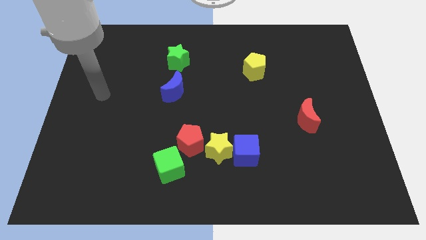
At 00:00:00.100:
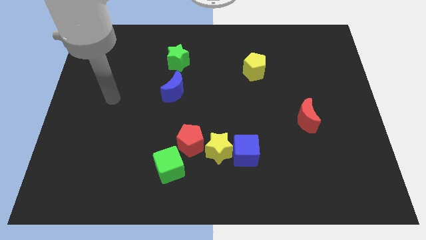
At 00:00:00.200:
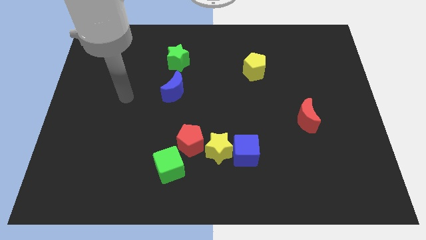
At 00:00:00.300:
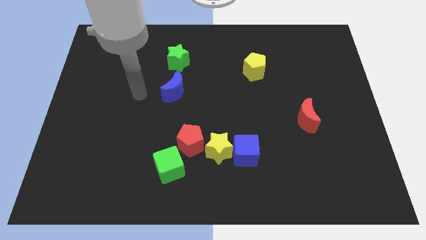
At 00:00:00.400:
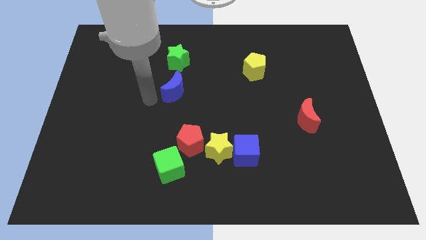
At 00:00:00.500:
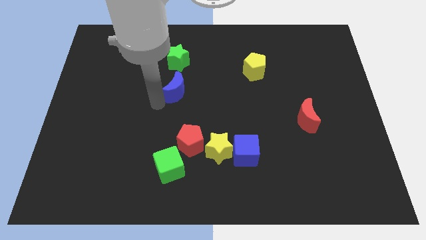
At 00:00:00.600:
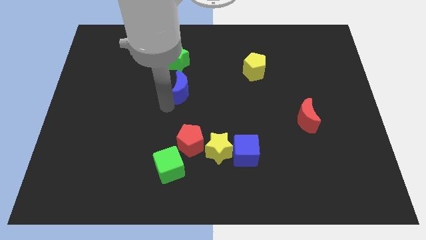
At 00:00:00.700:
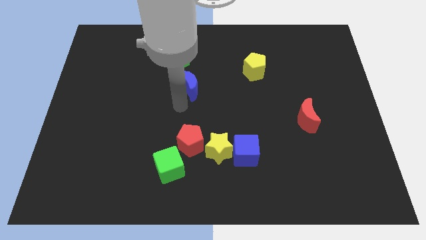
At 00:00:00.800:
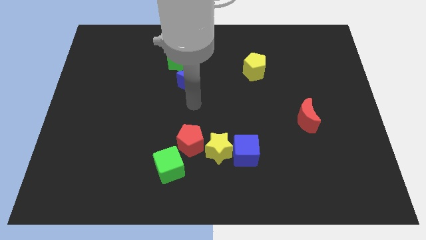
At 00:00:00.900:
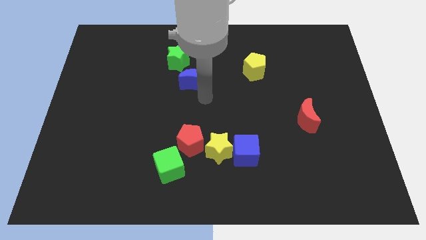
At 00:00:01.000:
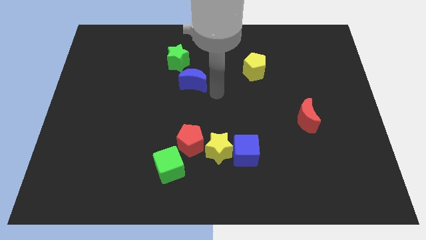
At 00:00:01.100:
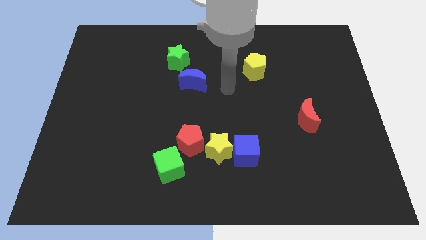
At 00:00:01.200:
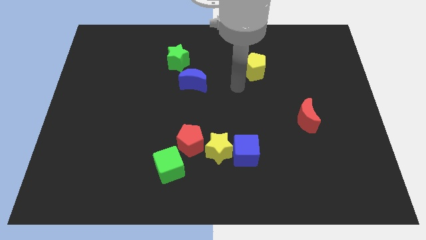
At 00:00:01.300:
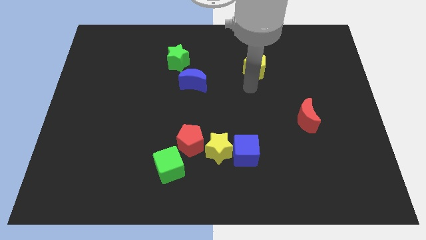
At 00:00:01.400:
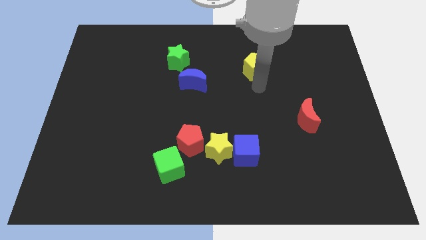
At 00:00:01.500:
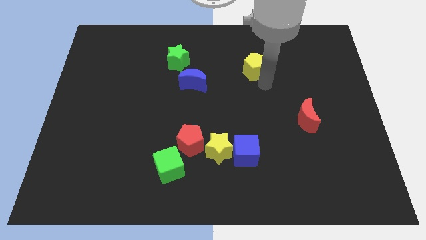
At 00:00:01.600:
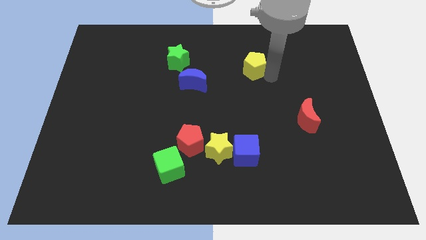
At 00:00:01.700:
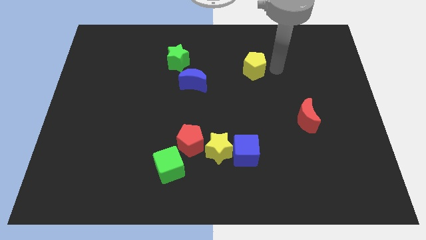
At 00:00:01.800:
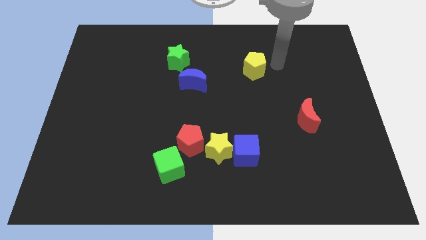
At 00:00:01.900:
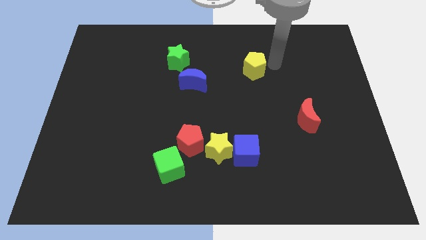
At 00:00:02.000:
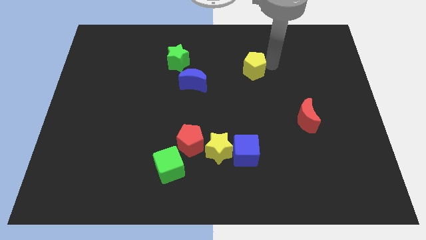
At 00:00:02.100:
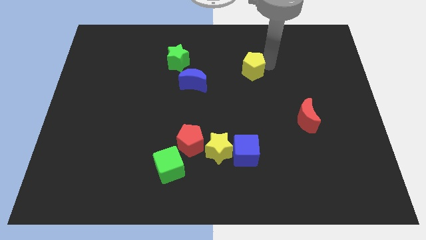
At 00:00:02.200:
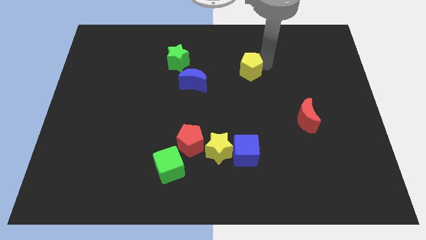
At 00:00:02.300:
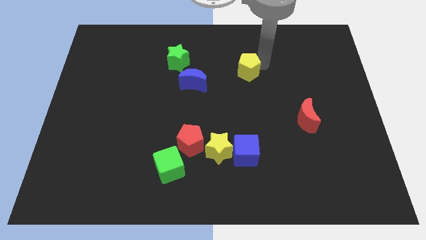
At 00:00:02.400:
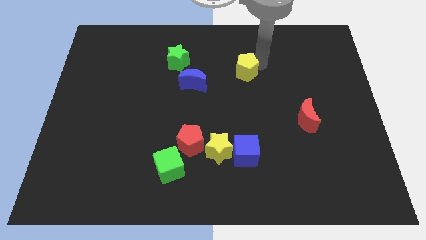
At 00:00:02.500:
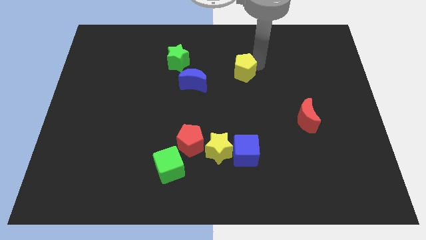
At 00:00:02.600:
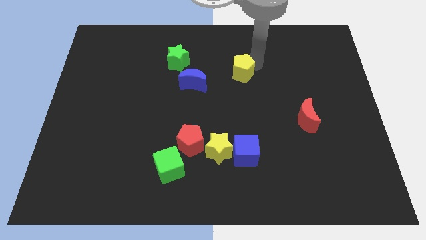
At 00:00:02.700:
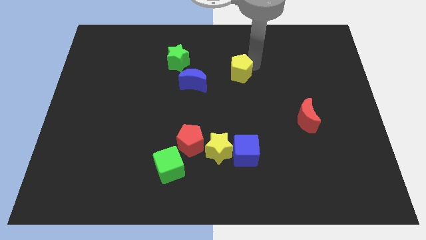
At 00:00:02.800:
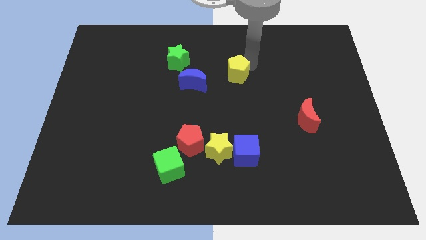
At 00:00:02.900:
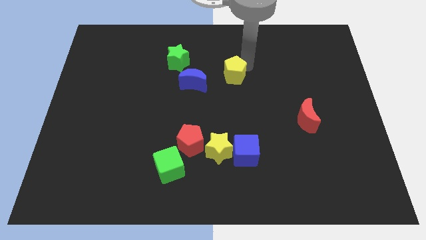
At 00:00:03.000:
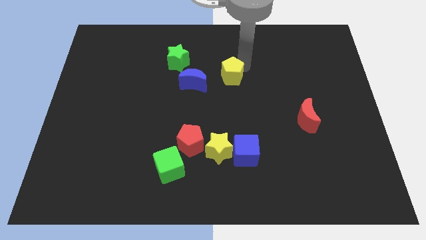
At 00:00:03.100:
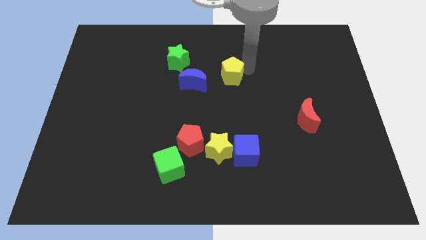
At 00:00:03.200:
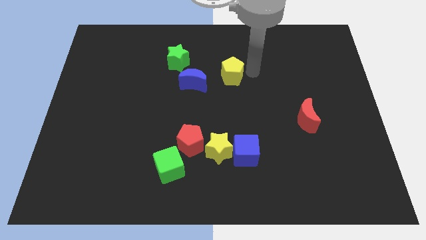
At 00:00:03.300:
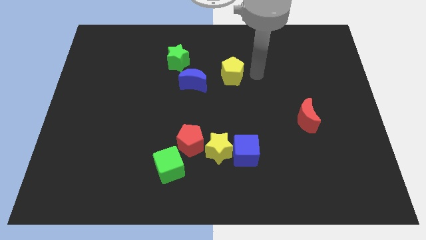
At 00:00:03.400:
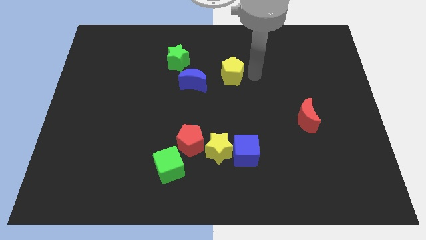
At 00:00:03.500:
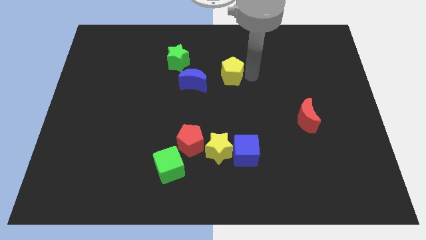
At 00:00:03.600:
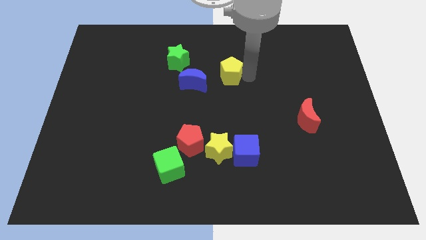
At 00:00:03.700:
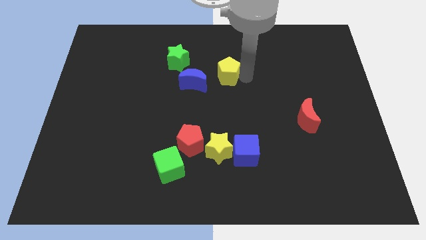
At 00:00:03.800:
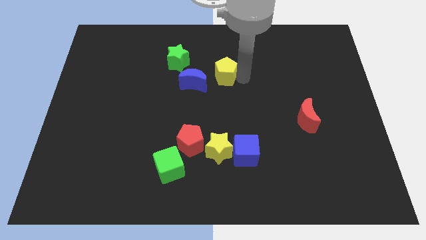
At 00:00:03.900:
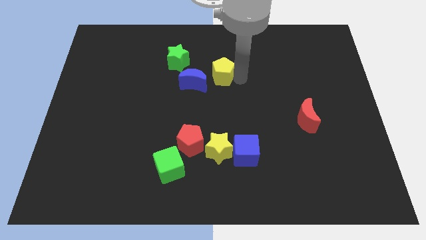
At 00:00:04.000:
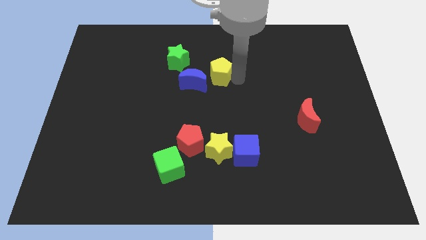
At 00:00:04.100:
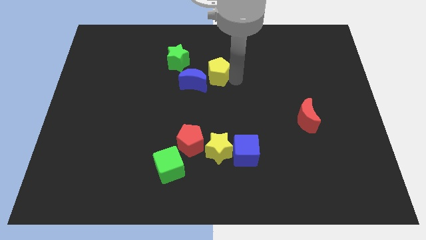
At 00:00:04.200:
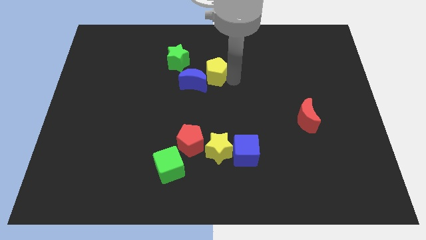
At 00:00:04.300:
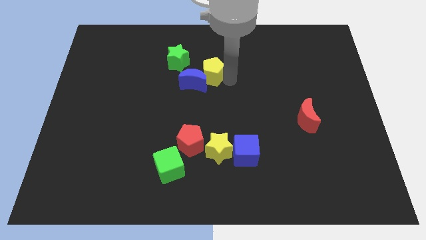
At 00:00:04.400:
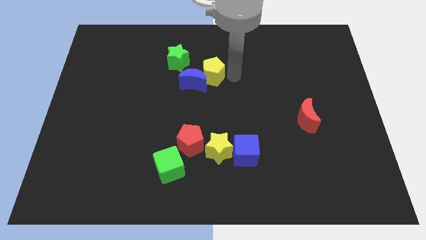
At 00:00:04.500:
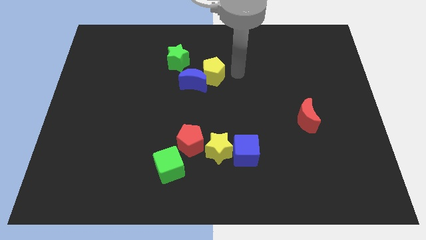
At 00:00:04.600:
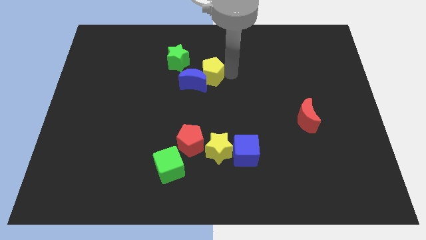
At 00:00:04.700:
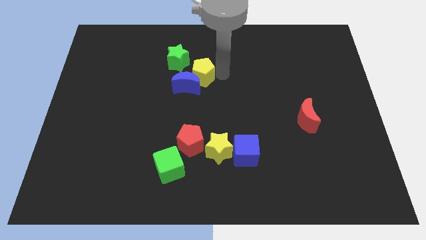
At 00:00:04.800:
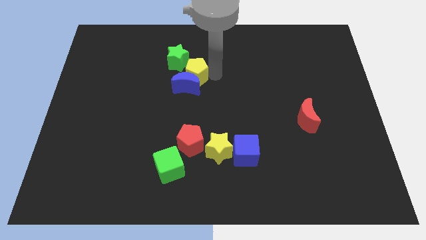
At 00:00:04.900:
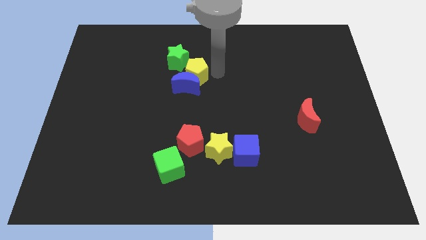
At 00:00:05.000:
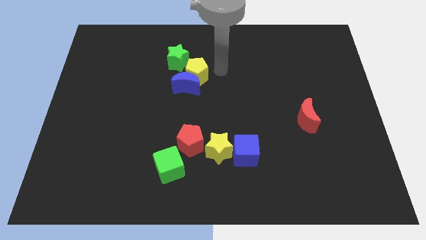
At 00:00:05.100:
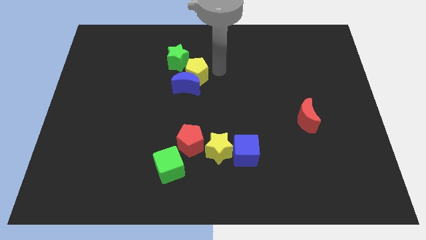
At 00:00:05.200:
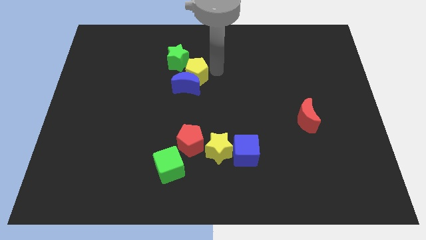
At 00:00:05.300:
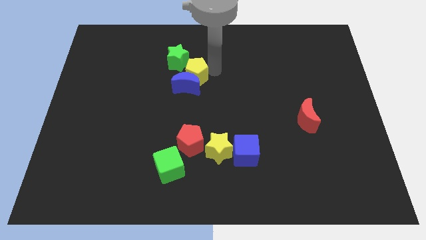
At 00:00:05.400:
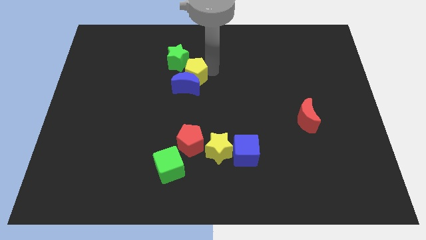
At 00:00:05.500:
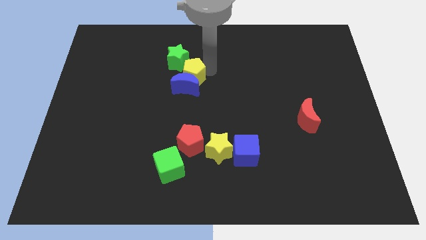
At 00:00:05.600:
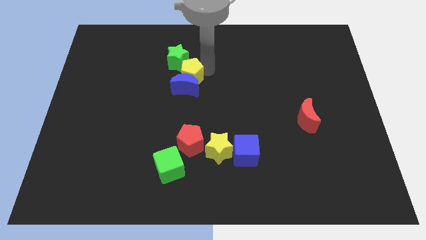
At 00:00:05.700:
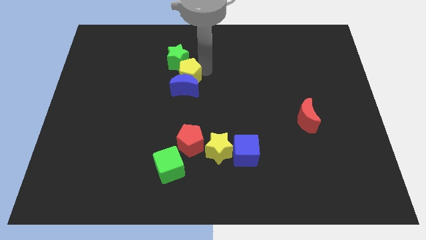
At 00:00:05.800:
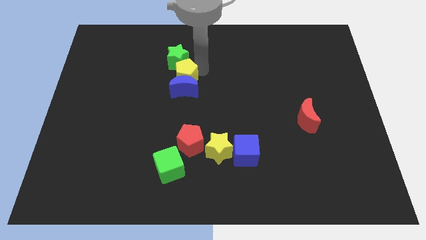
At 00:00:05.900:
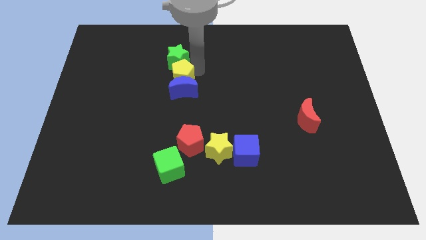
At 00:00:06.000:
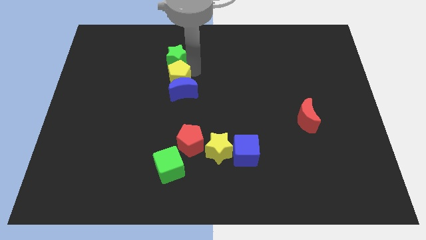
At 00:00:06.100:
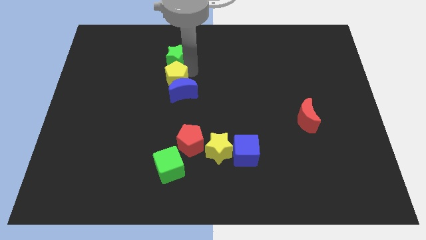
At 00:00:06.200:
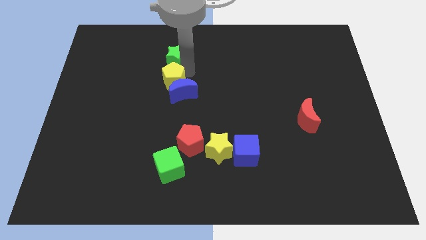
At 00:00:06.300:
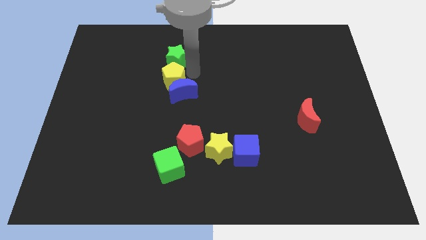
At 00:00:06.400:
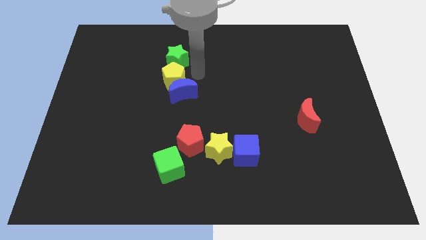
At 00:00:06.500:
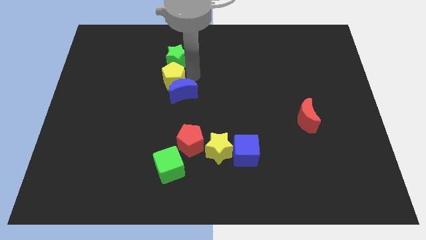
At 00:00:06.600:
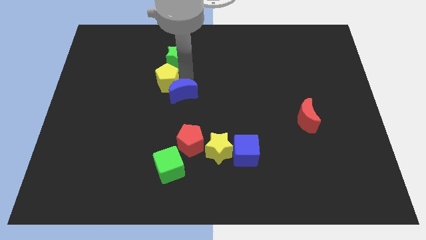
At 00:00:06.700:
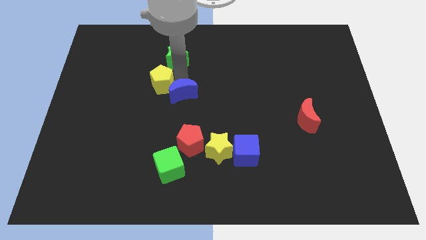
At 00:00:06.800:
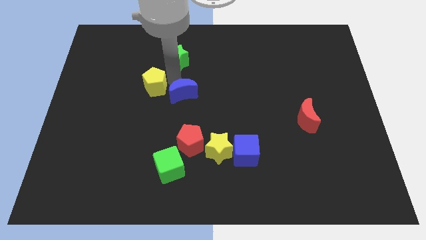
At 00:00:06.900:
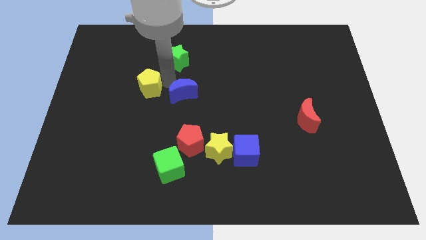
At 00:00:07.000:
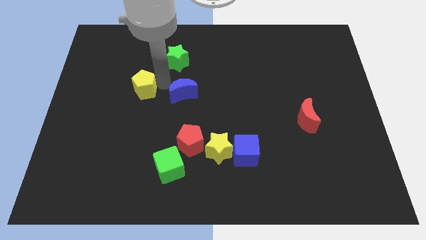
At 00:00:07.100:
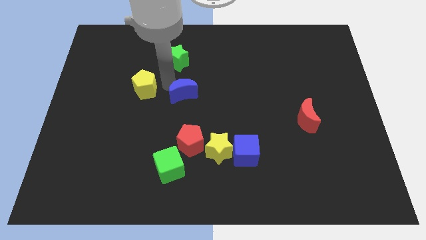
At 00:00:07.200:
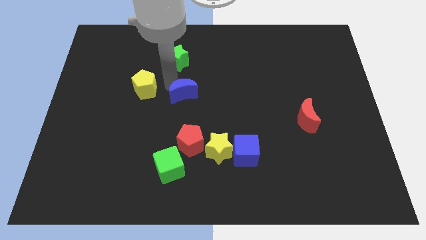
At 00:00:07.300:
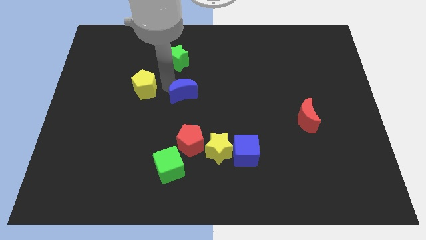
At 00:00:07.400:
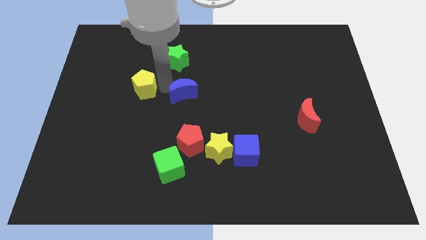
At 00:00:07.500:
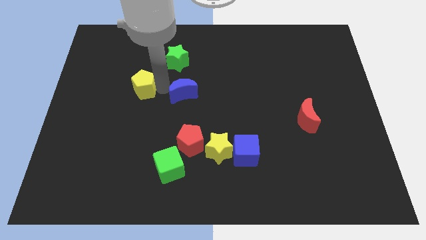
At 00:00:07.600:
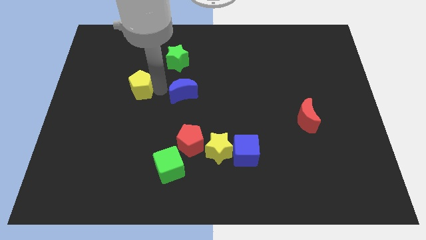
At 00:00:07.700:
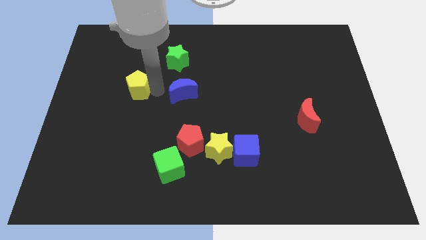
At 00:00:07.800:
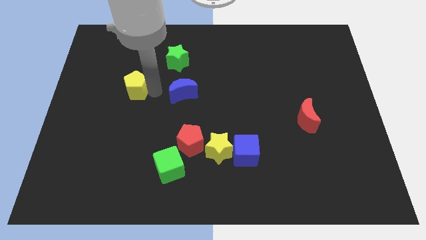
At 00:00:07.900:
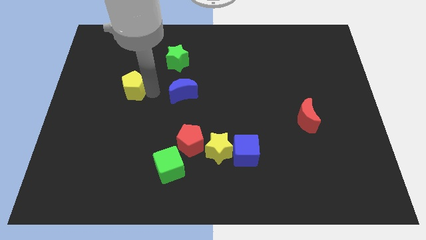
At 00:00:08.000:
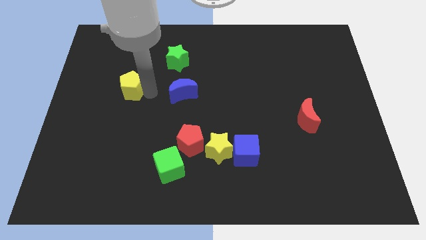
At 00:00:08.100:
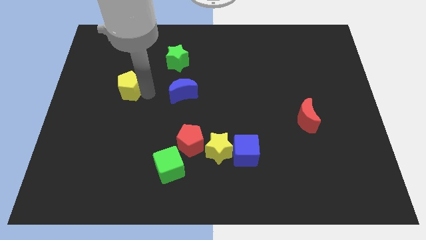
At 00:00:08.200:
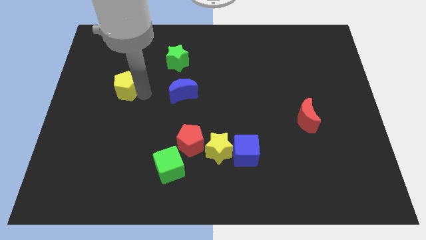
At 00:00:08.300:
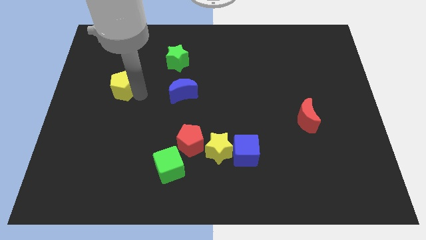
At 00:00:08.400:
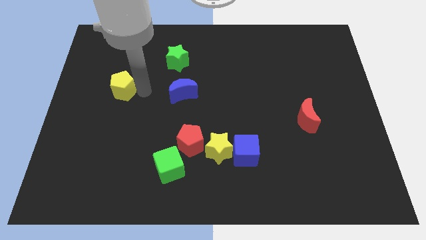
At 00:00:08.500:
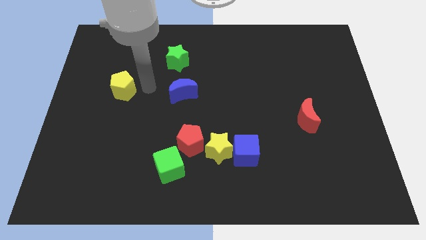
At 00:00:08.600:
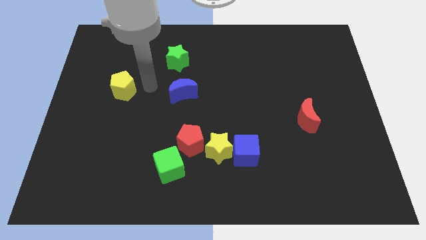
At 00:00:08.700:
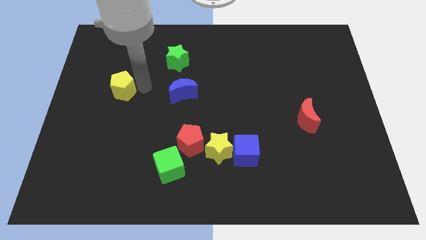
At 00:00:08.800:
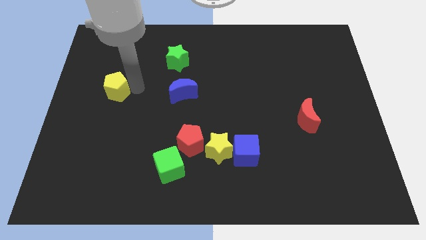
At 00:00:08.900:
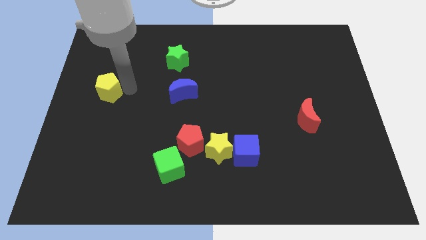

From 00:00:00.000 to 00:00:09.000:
put the yellow pentagon to the left side of the board
